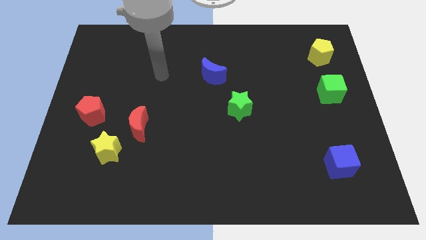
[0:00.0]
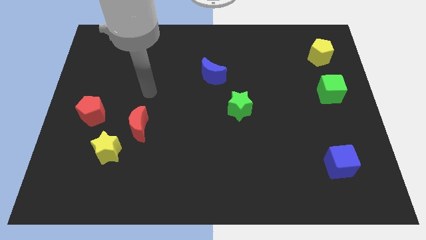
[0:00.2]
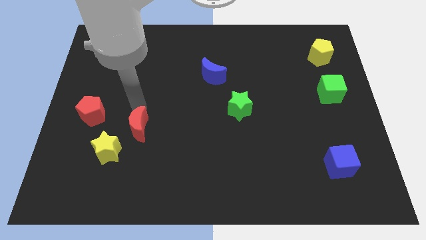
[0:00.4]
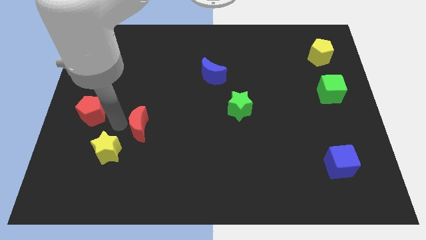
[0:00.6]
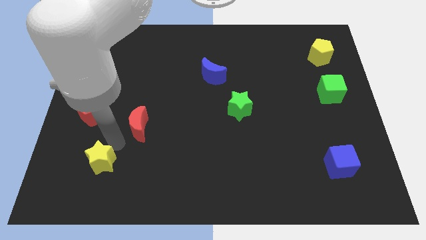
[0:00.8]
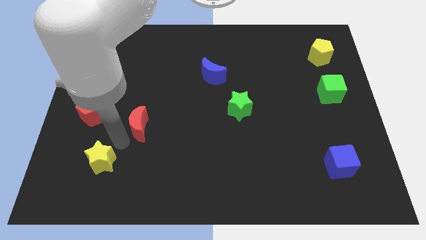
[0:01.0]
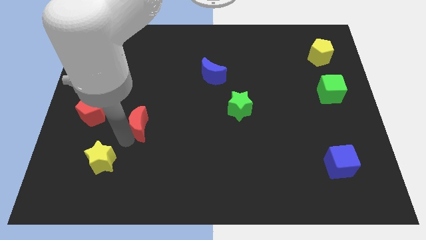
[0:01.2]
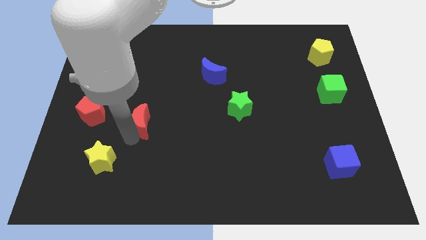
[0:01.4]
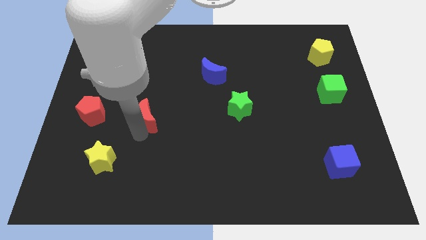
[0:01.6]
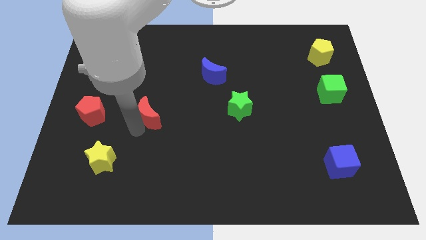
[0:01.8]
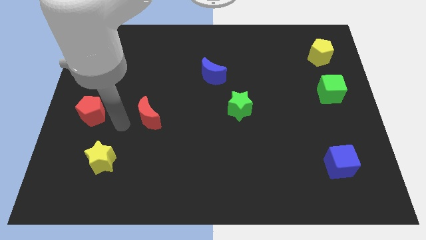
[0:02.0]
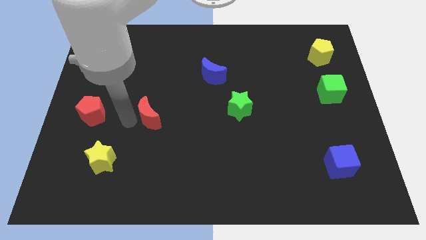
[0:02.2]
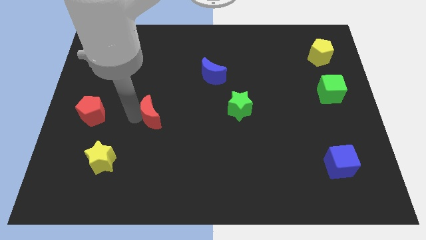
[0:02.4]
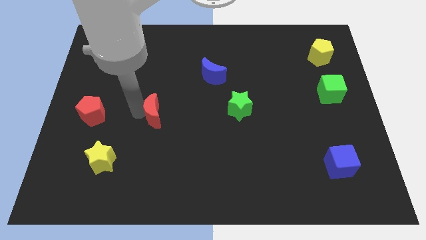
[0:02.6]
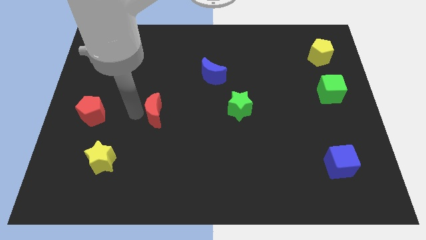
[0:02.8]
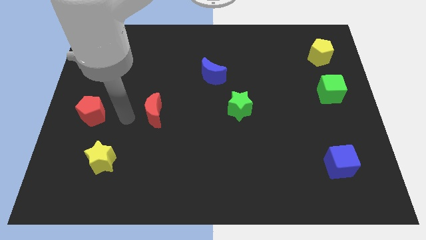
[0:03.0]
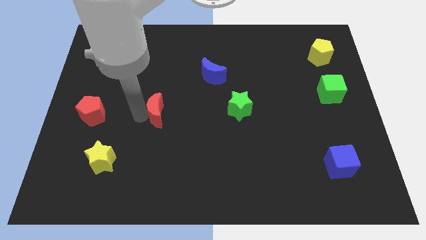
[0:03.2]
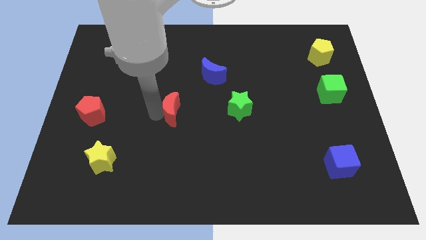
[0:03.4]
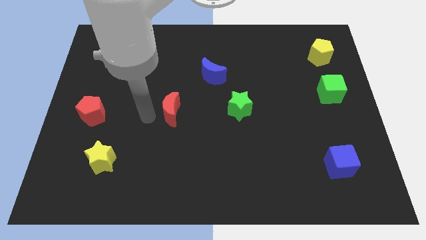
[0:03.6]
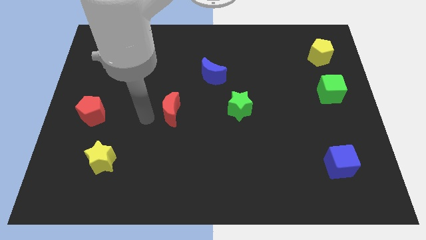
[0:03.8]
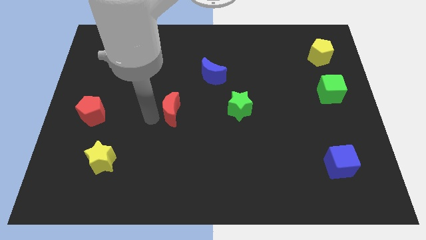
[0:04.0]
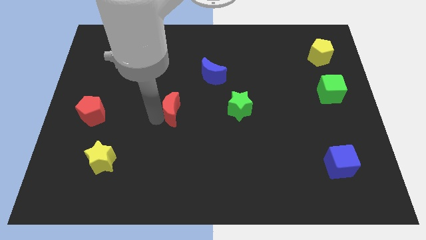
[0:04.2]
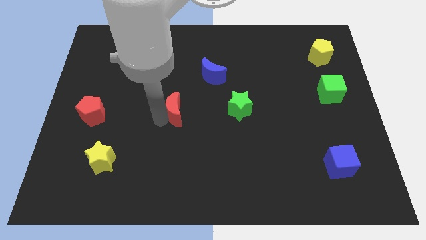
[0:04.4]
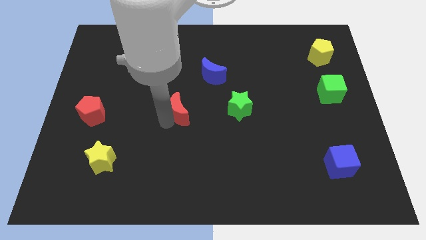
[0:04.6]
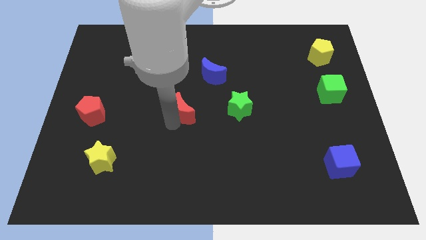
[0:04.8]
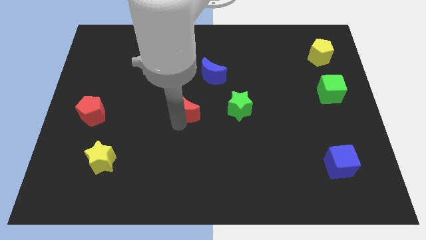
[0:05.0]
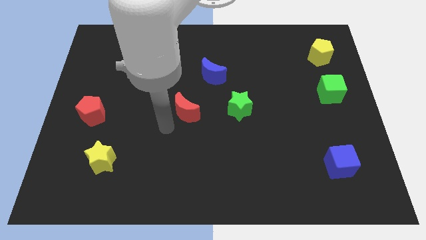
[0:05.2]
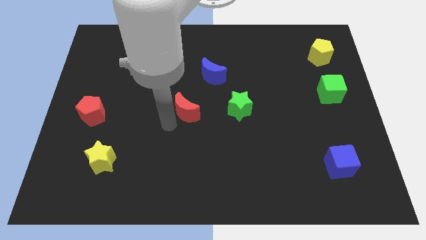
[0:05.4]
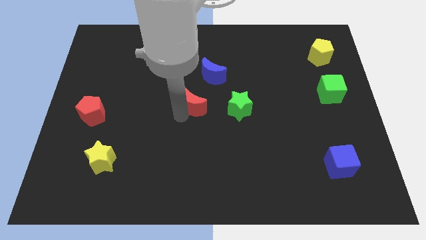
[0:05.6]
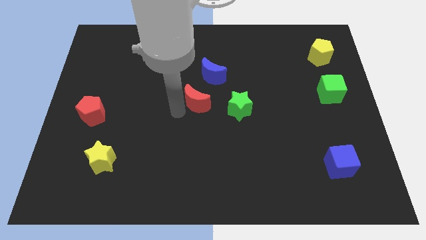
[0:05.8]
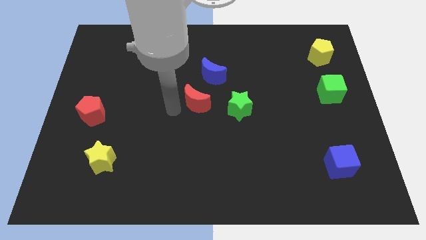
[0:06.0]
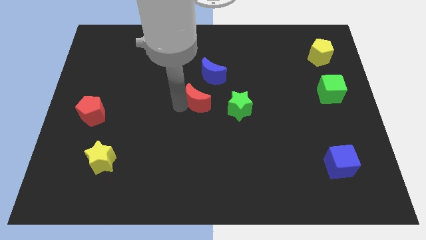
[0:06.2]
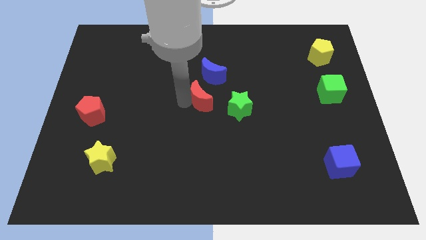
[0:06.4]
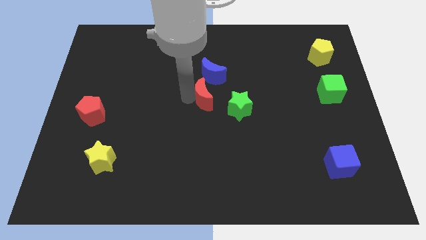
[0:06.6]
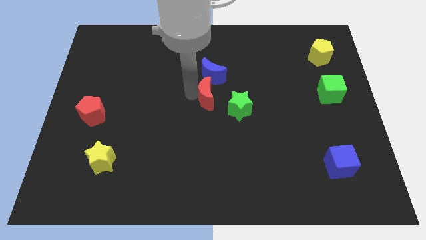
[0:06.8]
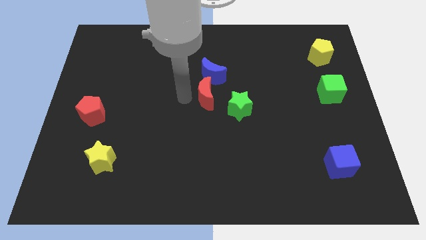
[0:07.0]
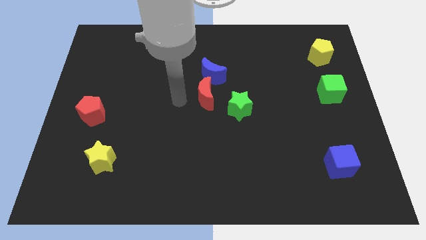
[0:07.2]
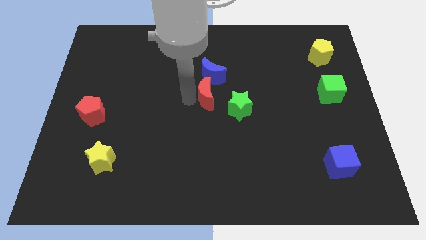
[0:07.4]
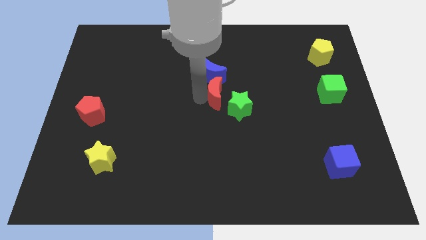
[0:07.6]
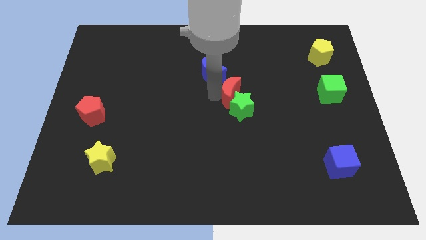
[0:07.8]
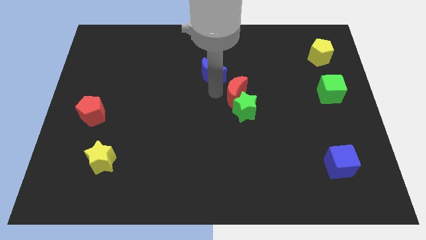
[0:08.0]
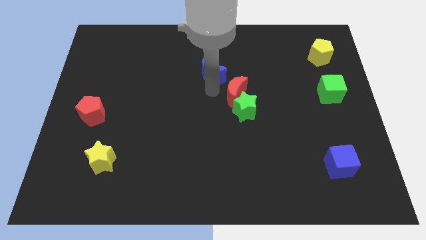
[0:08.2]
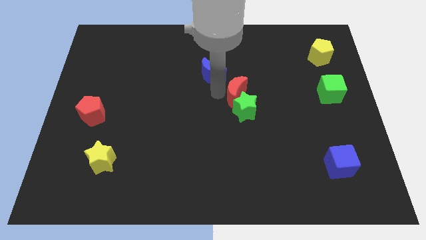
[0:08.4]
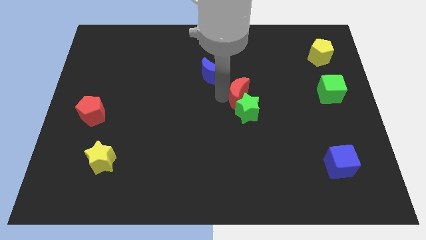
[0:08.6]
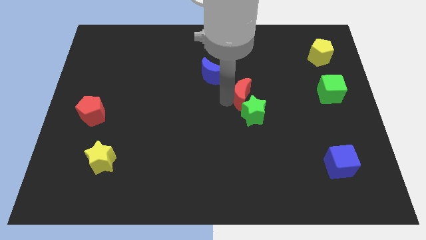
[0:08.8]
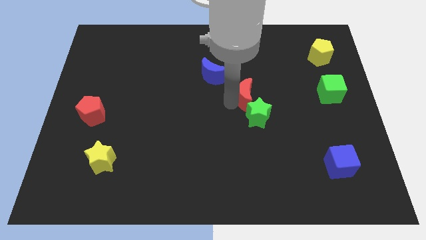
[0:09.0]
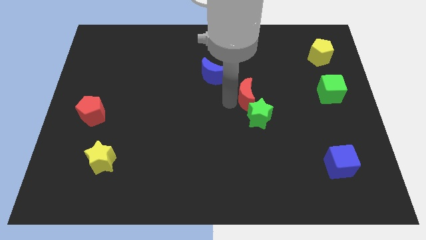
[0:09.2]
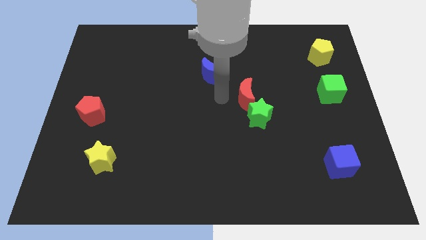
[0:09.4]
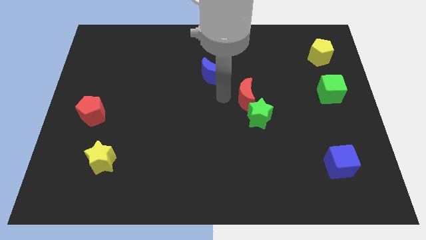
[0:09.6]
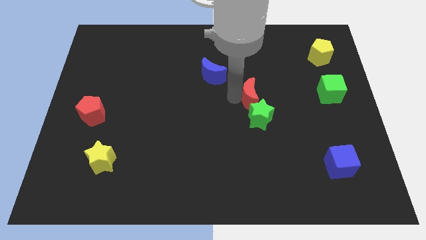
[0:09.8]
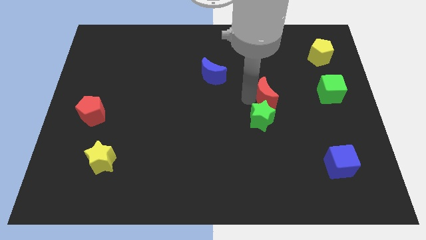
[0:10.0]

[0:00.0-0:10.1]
put the red moon to the left of the green cube

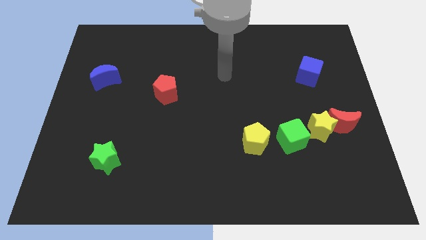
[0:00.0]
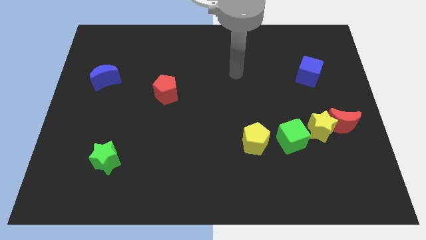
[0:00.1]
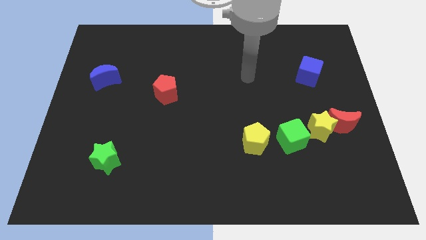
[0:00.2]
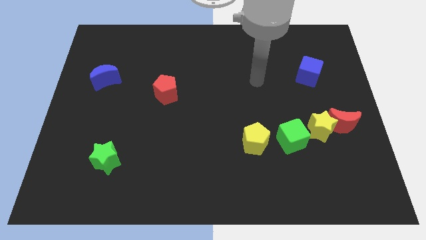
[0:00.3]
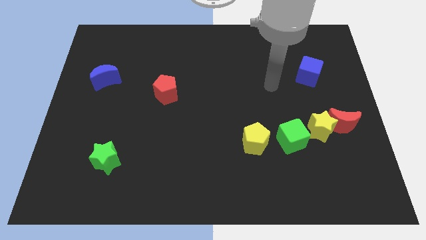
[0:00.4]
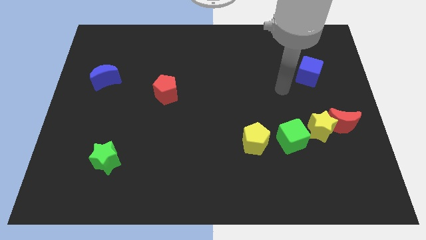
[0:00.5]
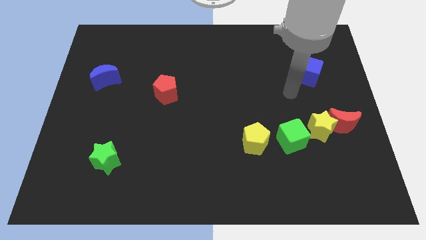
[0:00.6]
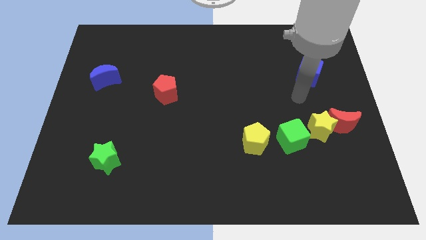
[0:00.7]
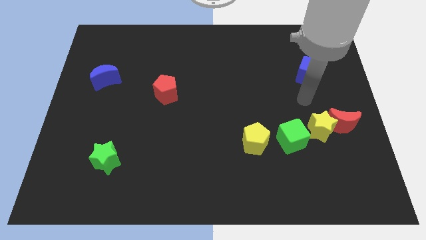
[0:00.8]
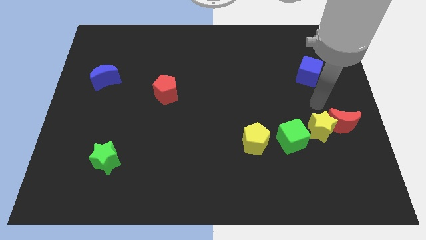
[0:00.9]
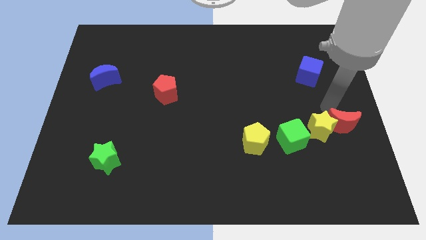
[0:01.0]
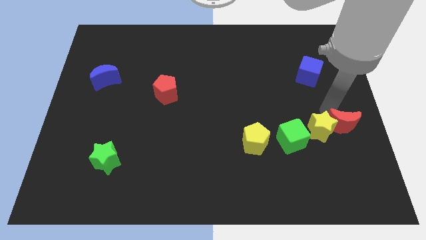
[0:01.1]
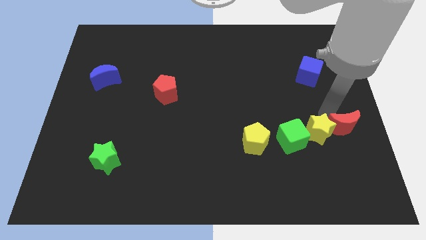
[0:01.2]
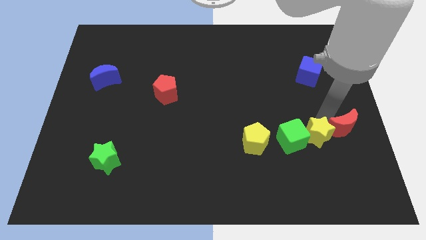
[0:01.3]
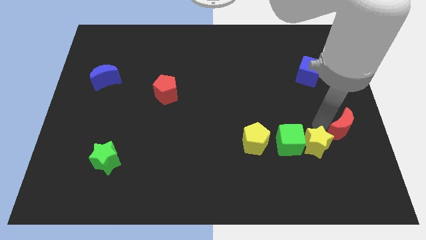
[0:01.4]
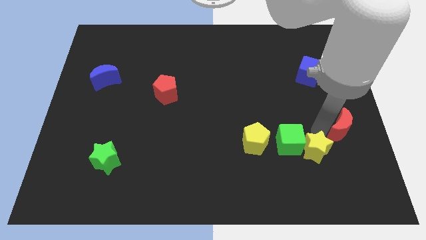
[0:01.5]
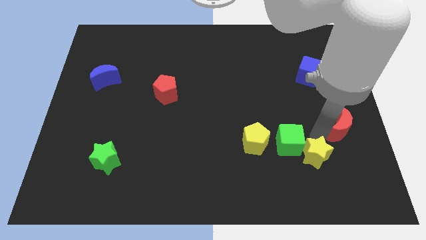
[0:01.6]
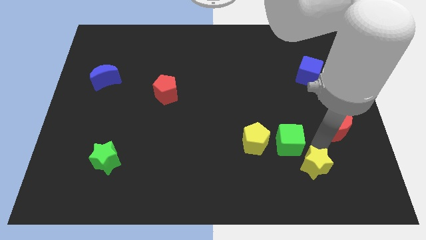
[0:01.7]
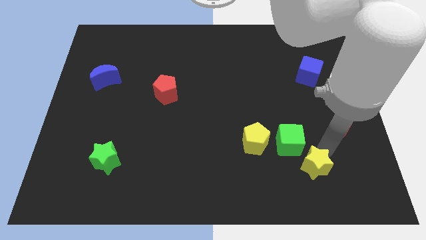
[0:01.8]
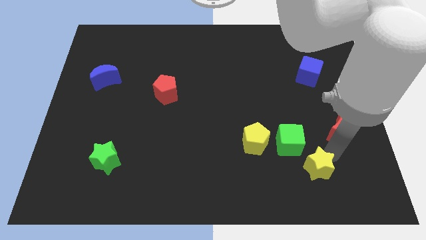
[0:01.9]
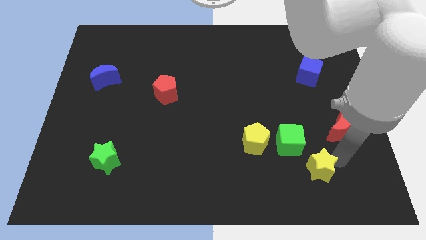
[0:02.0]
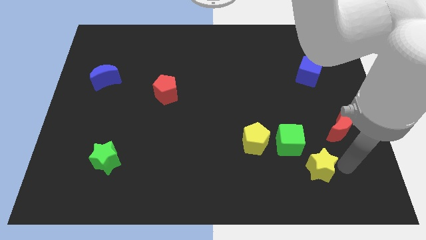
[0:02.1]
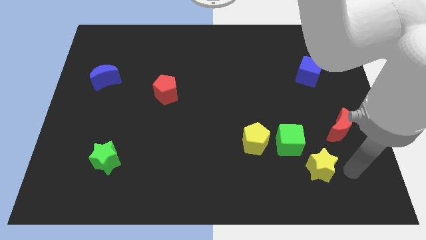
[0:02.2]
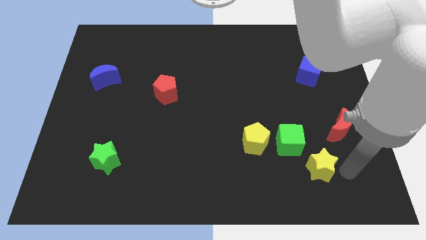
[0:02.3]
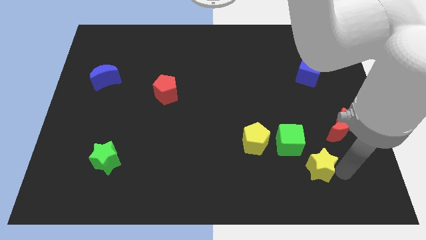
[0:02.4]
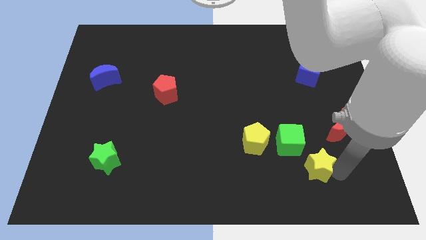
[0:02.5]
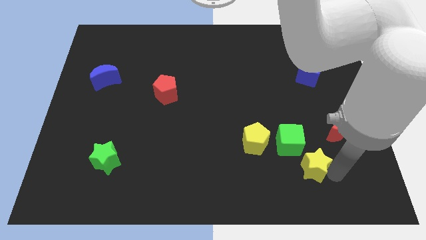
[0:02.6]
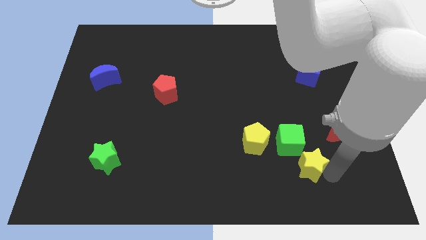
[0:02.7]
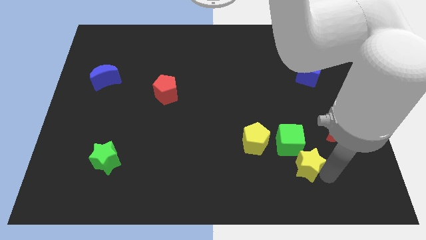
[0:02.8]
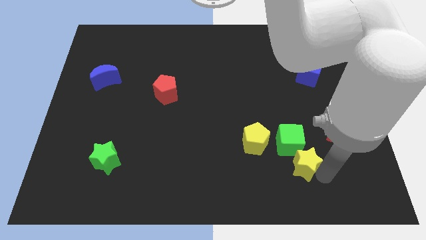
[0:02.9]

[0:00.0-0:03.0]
push the yellow star diagonally down and to the right of the yellow pentagon
